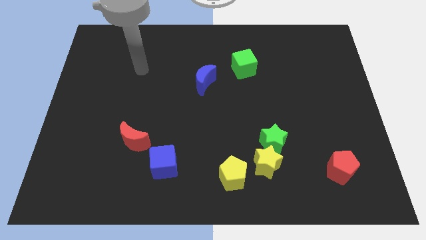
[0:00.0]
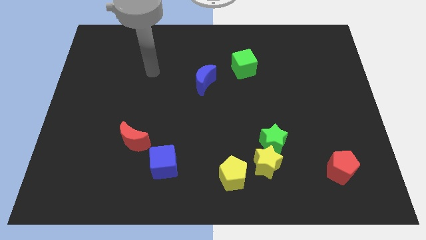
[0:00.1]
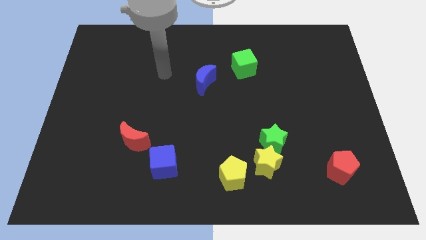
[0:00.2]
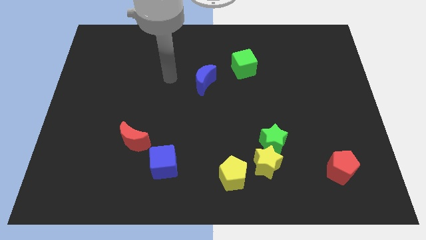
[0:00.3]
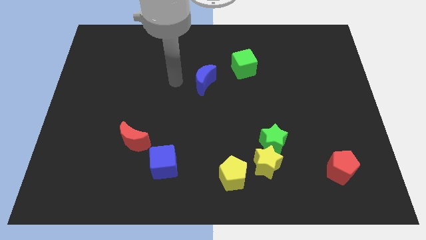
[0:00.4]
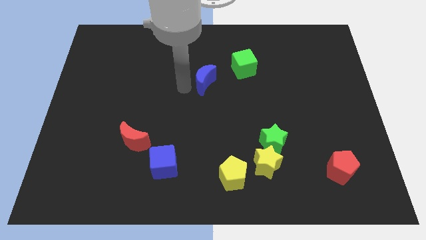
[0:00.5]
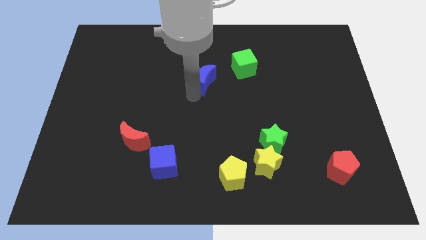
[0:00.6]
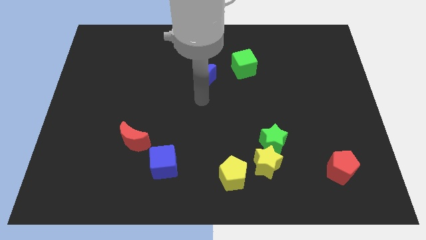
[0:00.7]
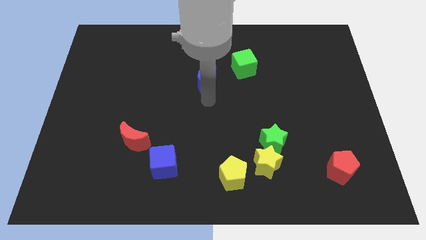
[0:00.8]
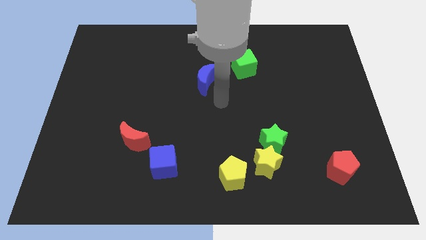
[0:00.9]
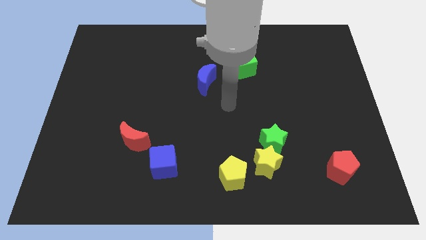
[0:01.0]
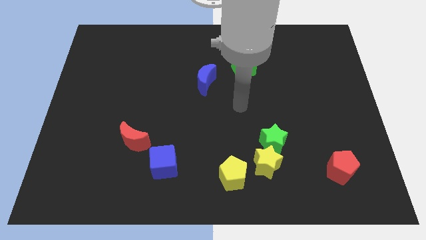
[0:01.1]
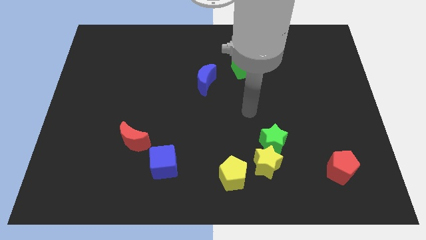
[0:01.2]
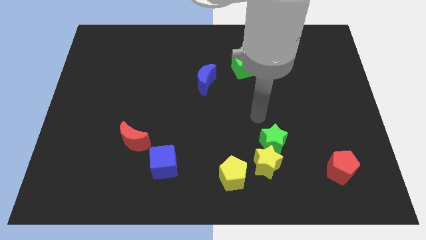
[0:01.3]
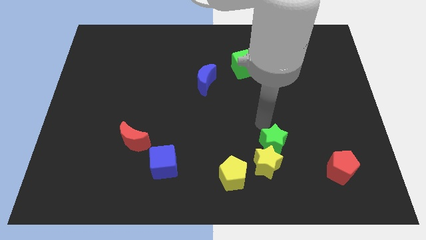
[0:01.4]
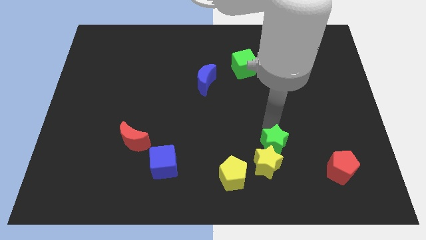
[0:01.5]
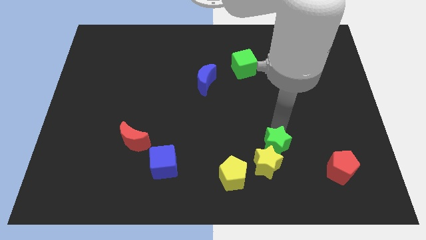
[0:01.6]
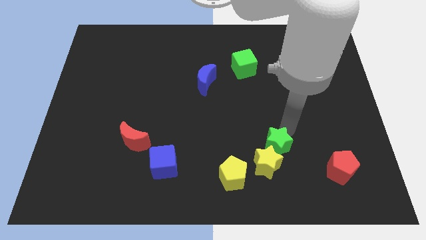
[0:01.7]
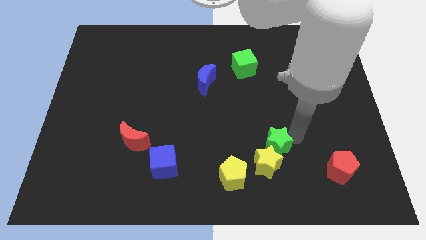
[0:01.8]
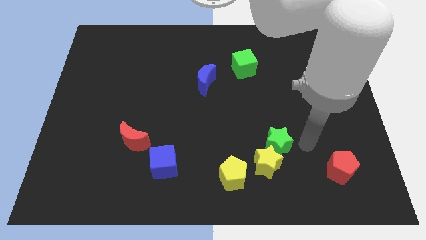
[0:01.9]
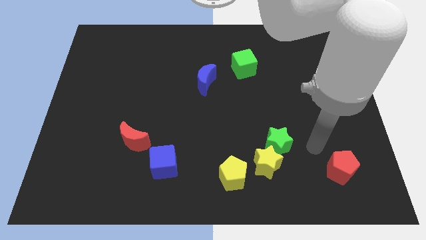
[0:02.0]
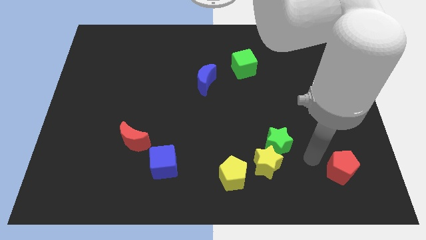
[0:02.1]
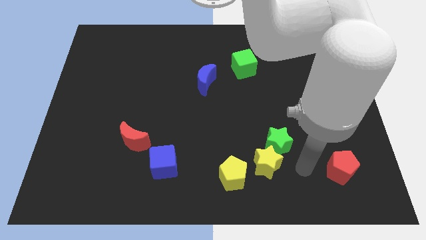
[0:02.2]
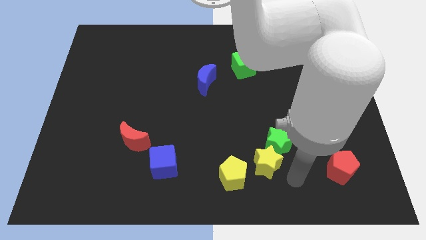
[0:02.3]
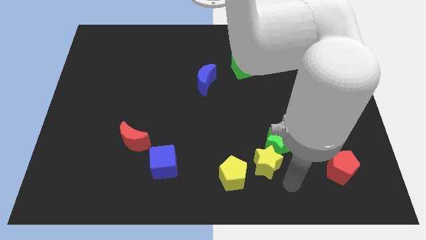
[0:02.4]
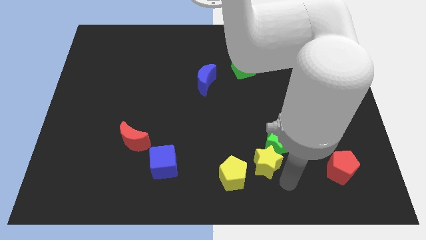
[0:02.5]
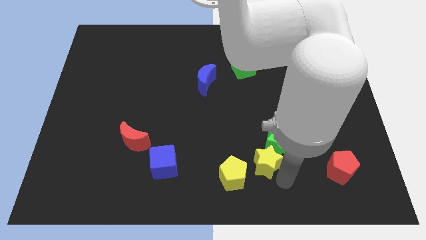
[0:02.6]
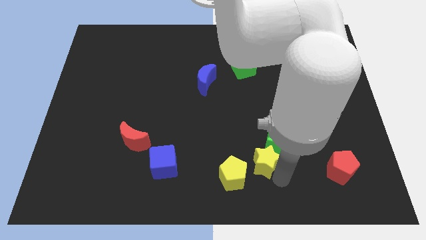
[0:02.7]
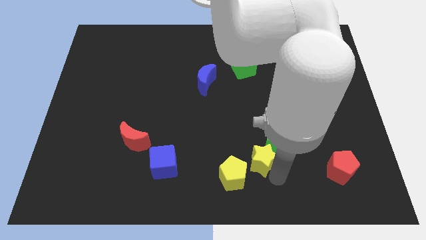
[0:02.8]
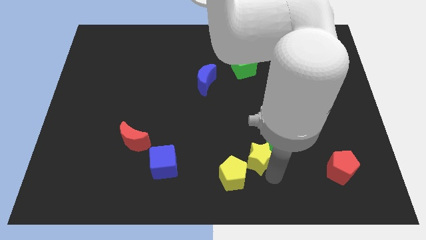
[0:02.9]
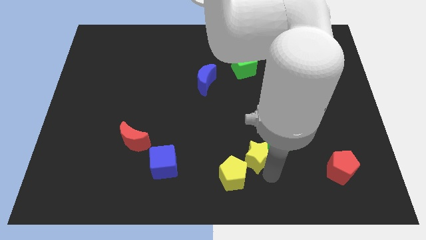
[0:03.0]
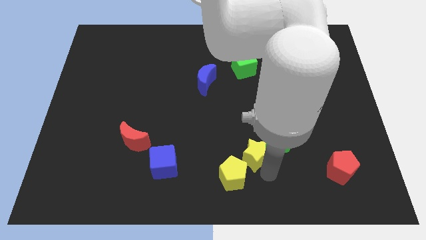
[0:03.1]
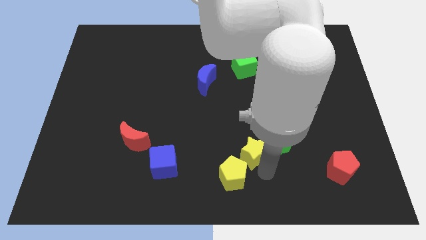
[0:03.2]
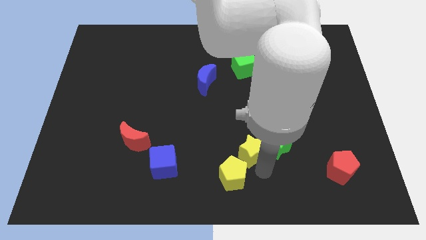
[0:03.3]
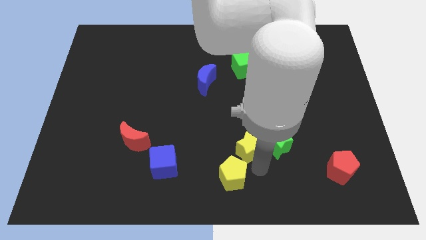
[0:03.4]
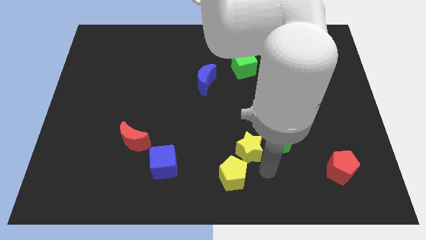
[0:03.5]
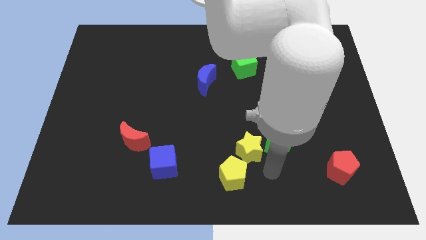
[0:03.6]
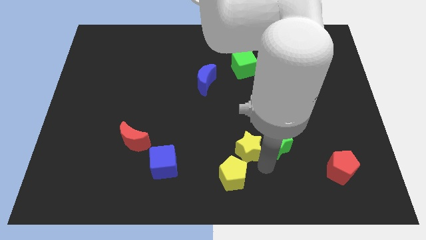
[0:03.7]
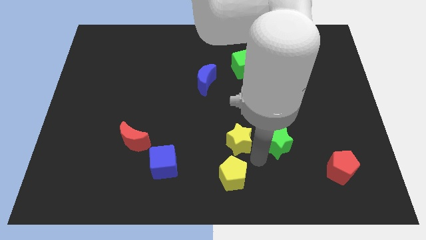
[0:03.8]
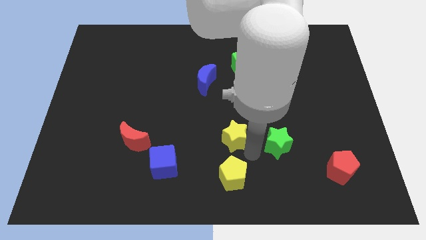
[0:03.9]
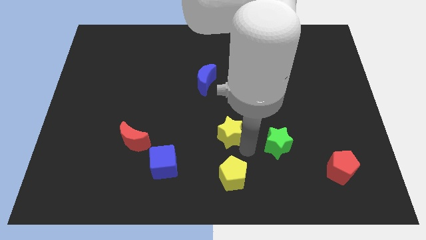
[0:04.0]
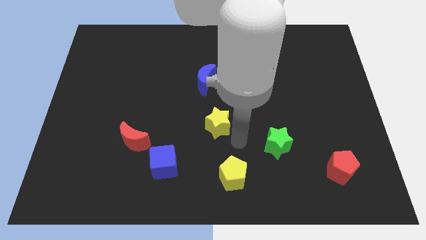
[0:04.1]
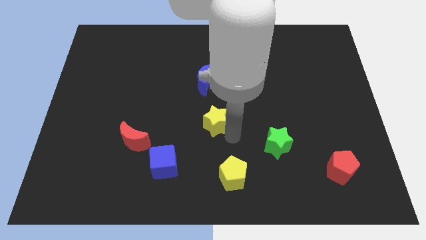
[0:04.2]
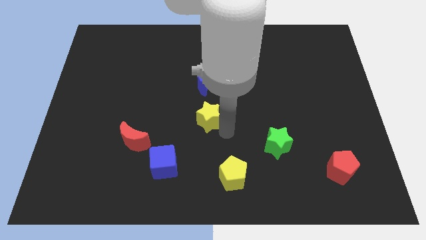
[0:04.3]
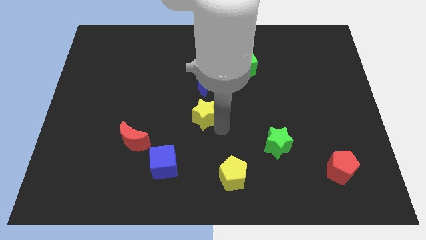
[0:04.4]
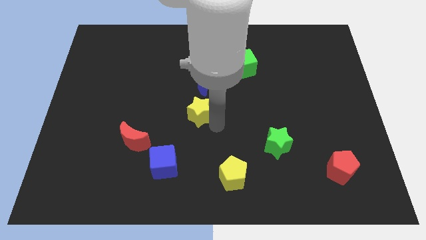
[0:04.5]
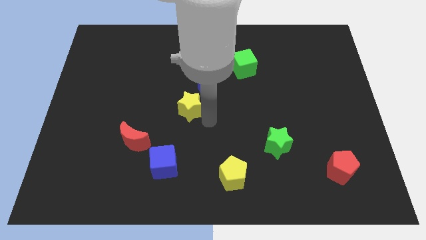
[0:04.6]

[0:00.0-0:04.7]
push the yellow star up and left

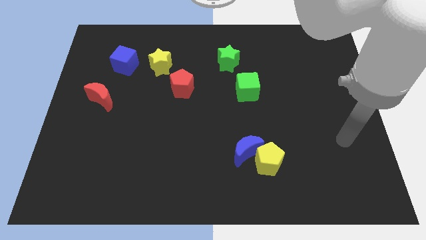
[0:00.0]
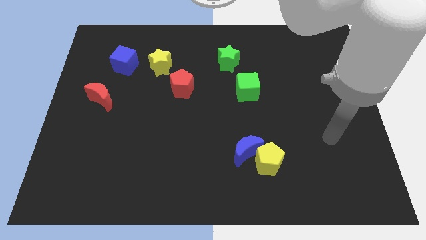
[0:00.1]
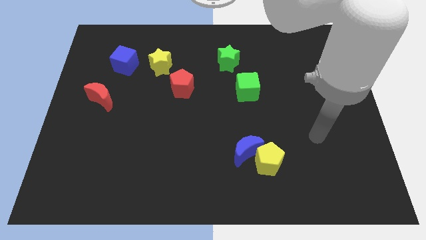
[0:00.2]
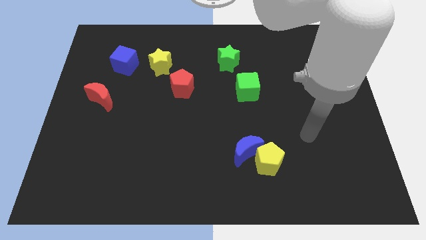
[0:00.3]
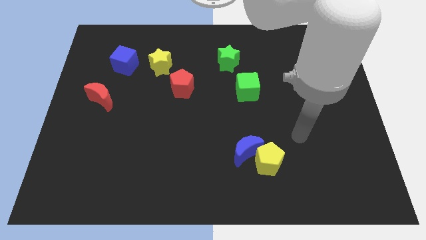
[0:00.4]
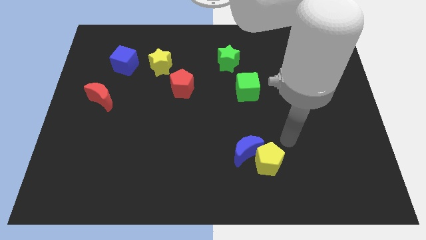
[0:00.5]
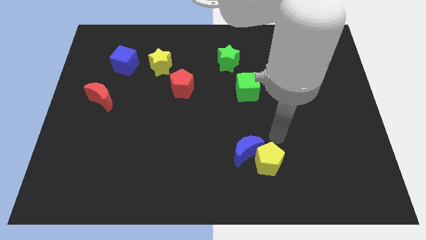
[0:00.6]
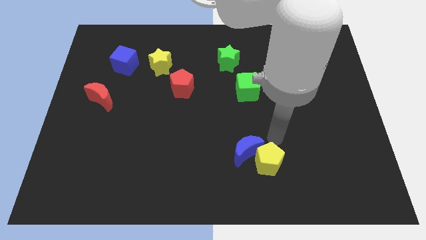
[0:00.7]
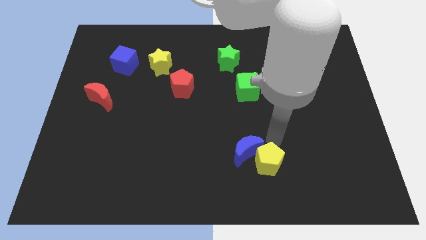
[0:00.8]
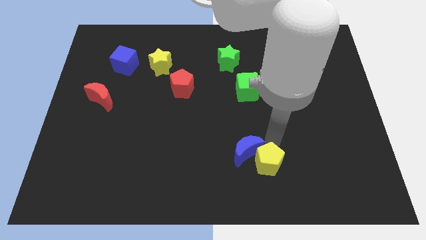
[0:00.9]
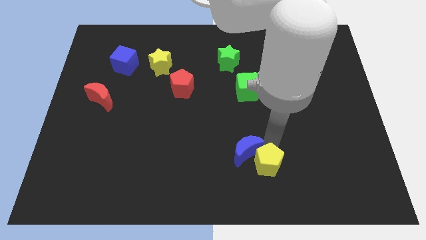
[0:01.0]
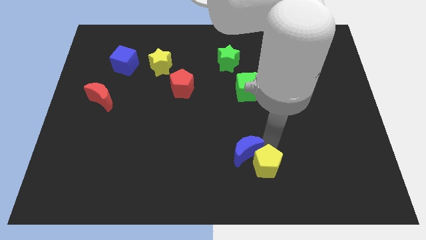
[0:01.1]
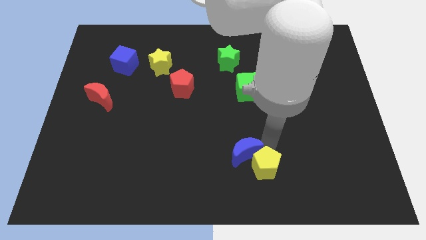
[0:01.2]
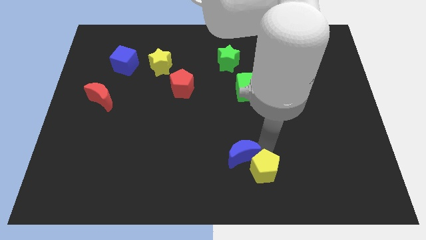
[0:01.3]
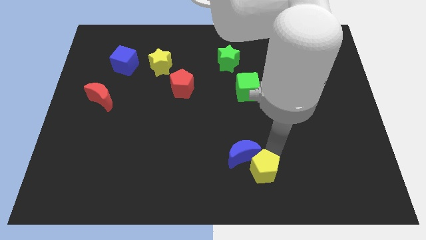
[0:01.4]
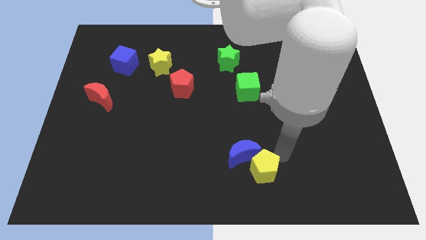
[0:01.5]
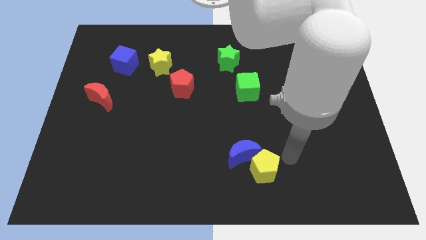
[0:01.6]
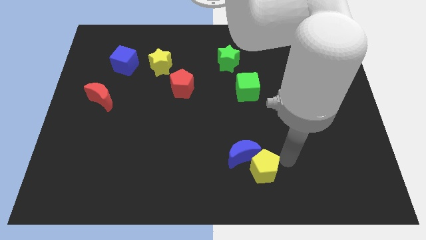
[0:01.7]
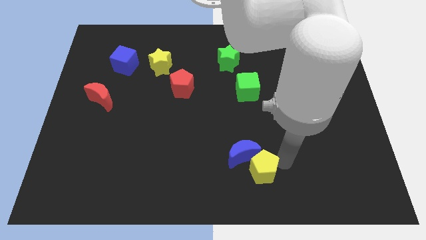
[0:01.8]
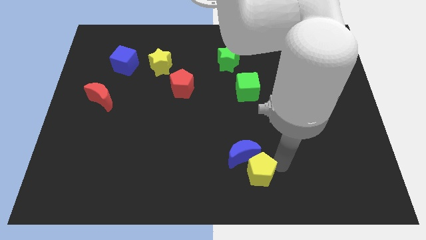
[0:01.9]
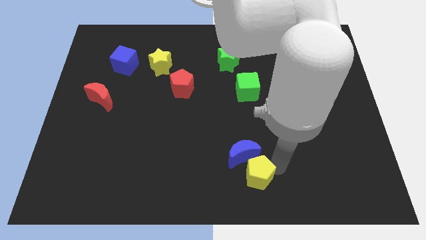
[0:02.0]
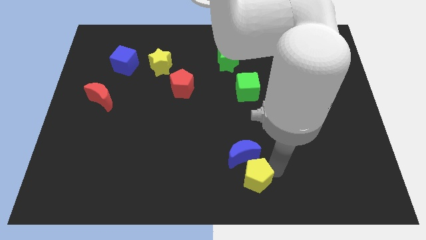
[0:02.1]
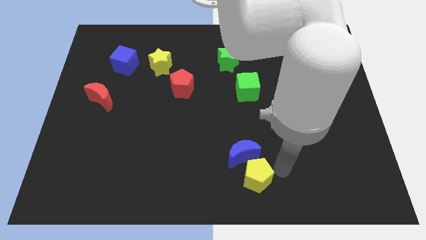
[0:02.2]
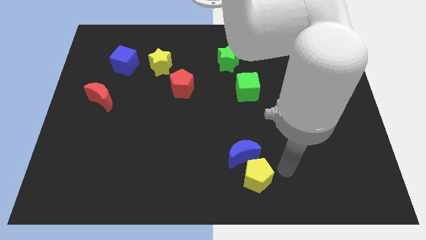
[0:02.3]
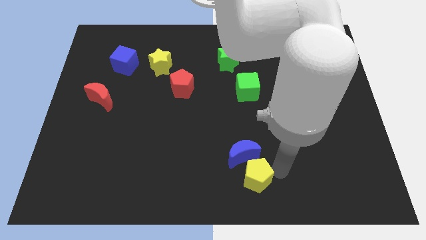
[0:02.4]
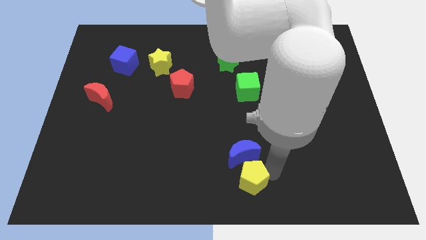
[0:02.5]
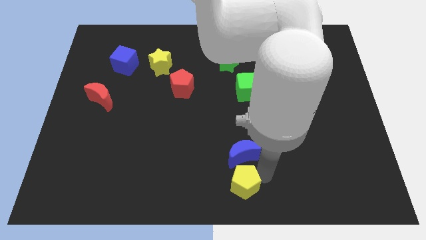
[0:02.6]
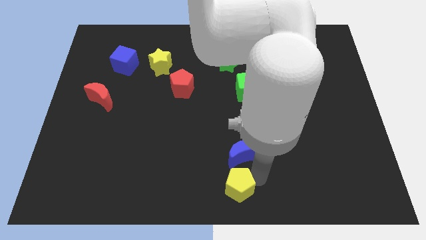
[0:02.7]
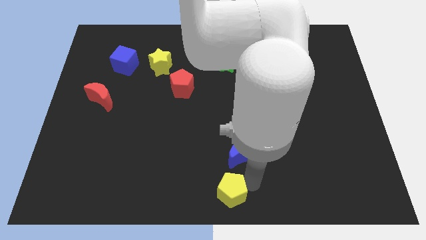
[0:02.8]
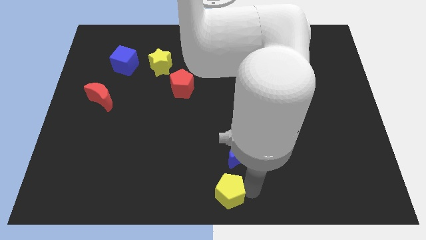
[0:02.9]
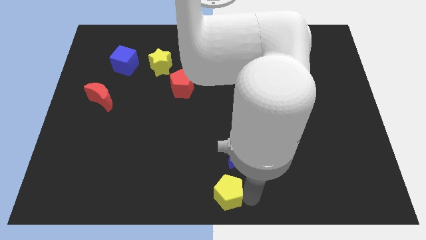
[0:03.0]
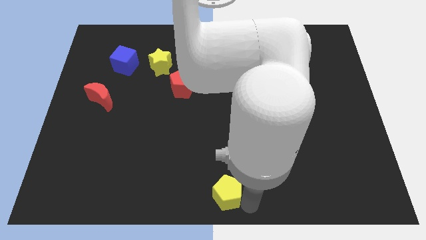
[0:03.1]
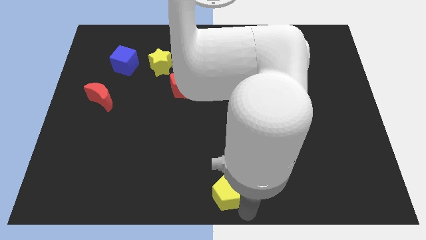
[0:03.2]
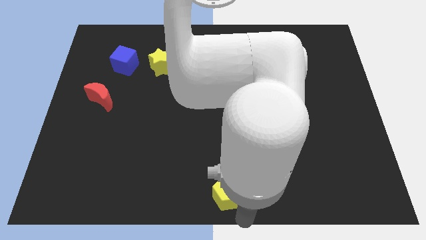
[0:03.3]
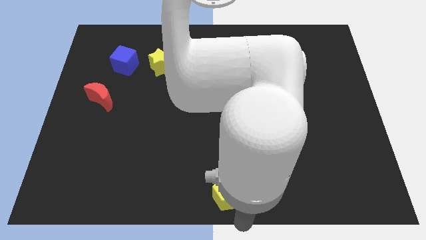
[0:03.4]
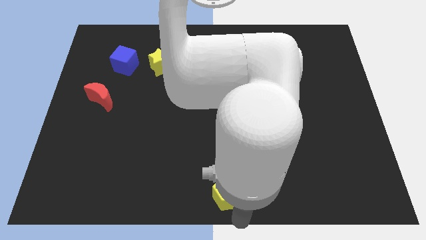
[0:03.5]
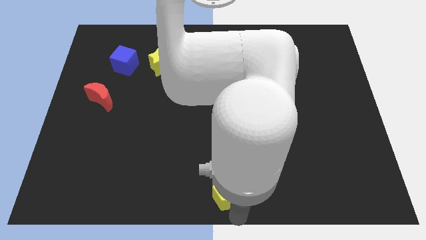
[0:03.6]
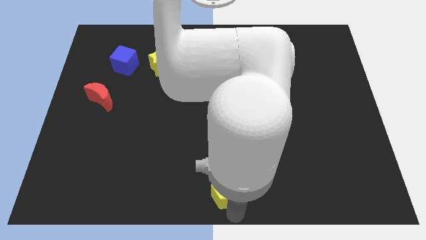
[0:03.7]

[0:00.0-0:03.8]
slightly move the yellow pentagon left

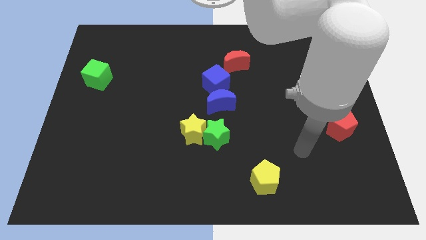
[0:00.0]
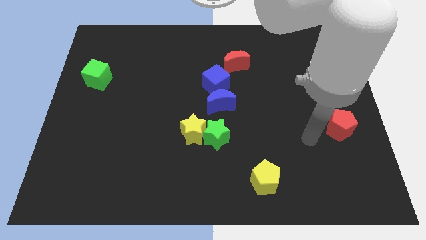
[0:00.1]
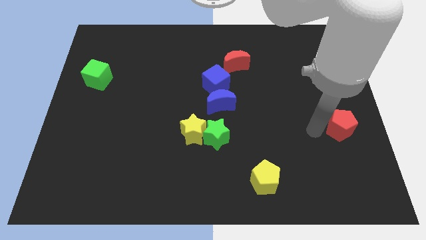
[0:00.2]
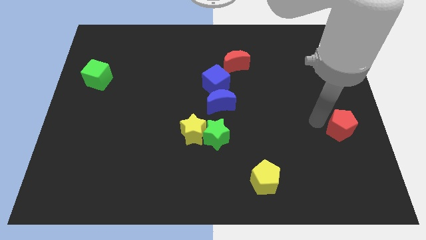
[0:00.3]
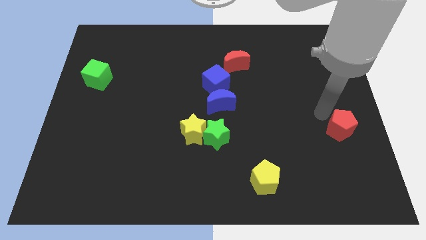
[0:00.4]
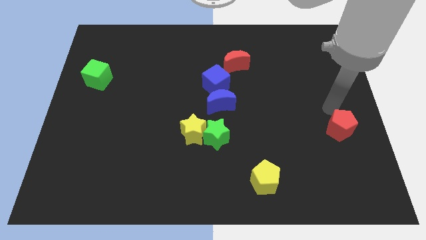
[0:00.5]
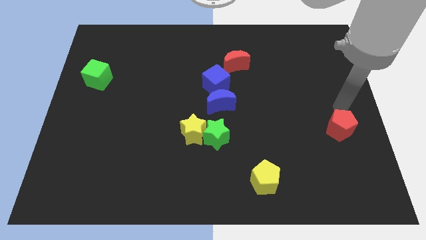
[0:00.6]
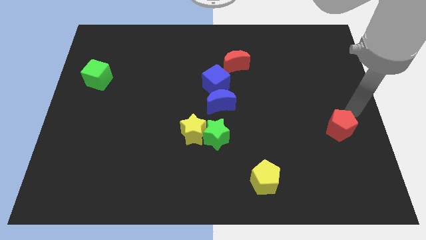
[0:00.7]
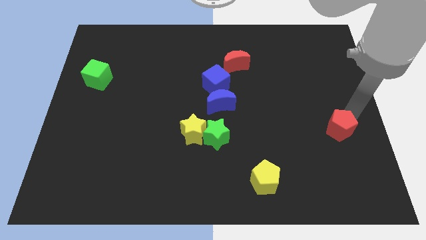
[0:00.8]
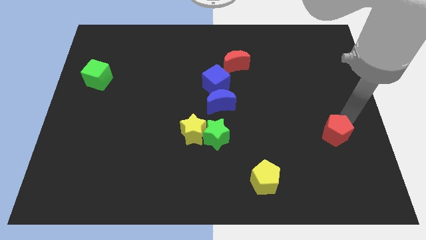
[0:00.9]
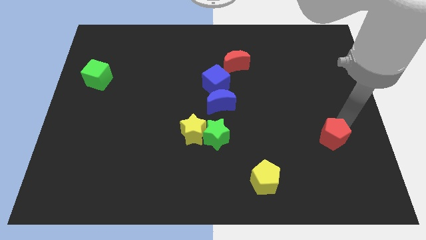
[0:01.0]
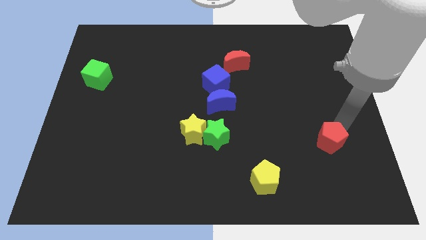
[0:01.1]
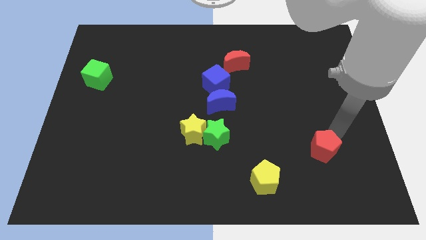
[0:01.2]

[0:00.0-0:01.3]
slide the red pentagon a little bit down and left
